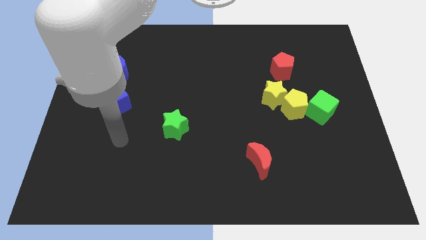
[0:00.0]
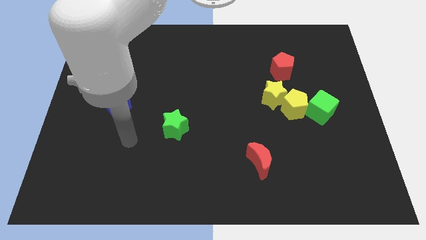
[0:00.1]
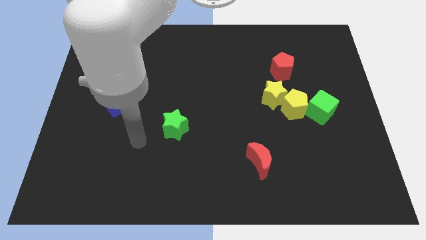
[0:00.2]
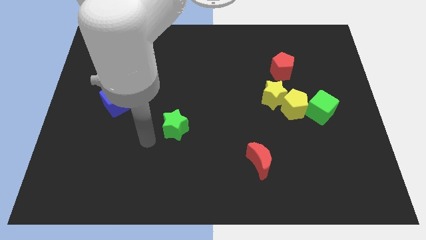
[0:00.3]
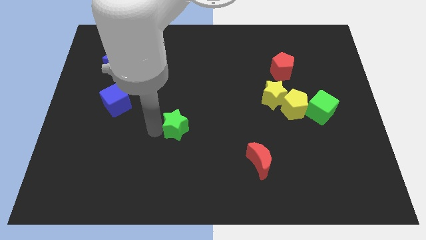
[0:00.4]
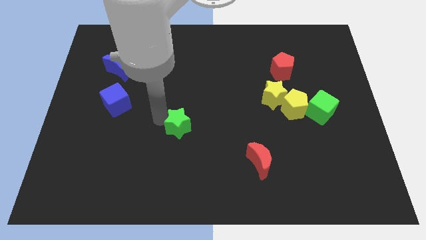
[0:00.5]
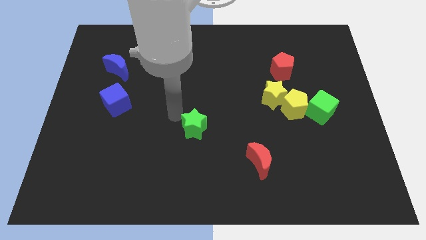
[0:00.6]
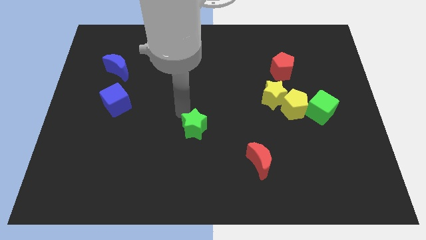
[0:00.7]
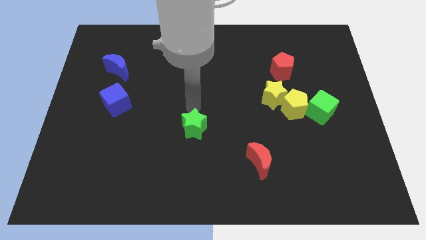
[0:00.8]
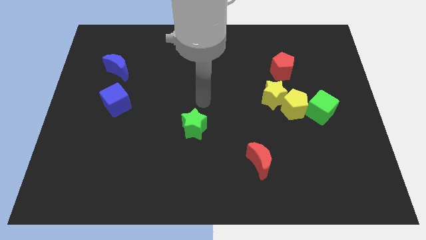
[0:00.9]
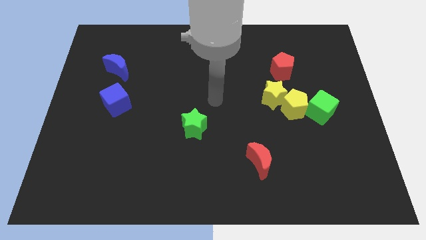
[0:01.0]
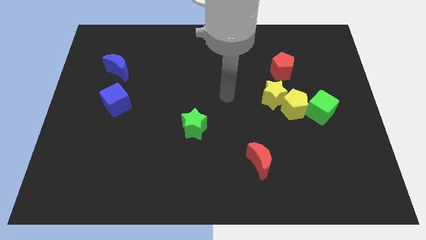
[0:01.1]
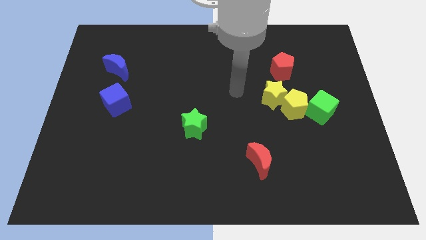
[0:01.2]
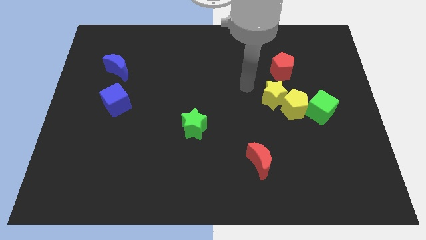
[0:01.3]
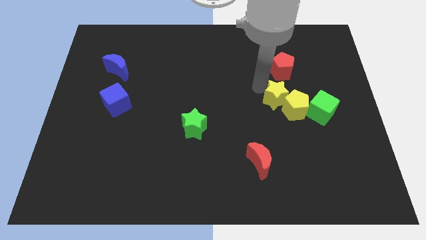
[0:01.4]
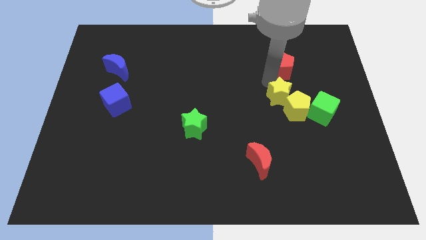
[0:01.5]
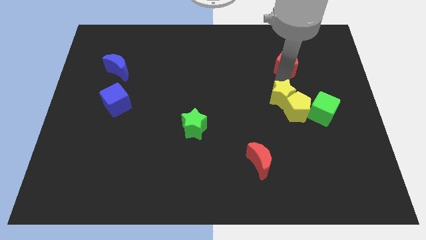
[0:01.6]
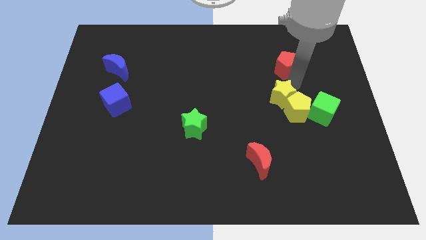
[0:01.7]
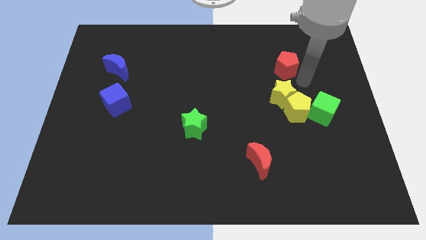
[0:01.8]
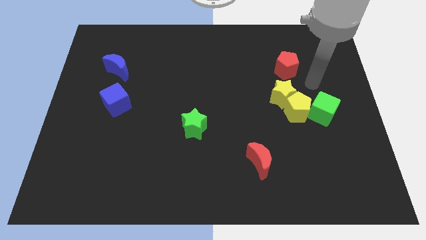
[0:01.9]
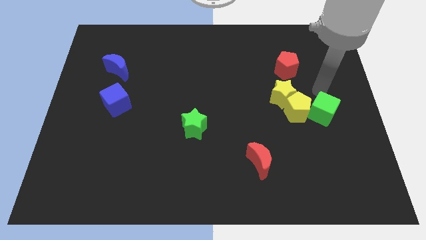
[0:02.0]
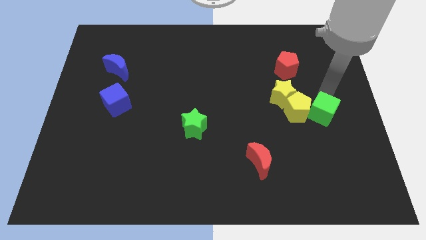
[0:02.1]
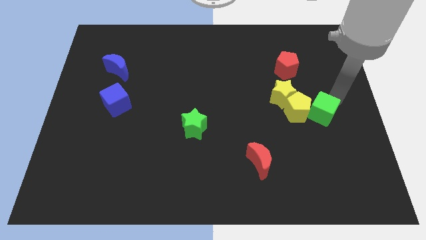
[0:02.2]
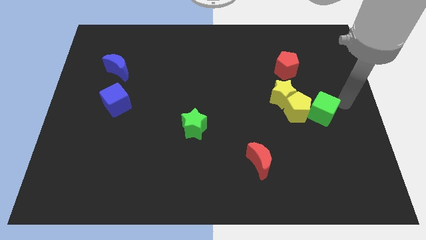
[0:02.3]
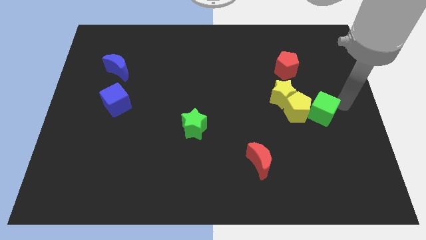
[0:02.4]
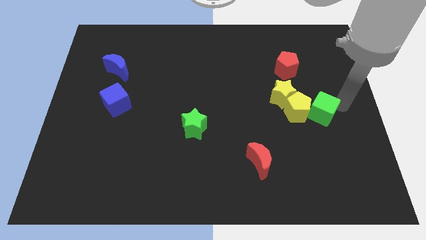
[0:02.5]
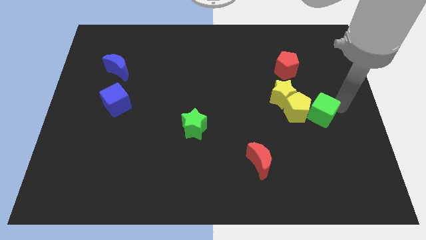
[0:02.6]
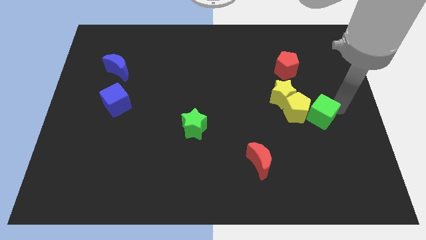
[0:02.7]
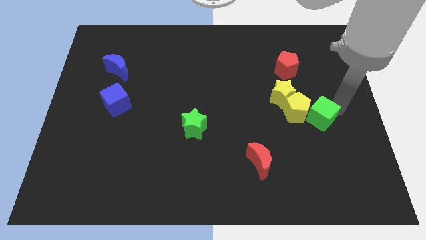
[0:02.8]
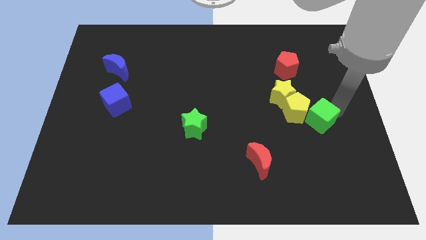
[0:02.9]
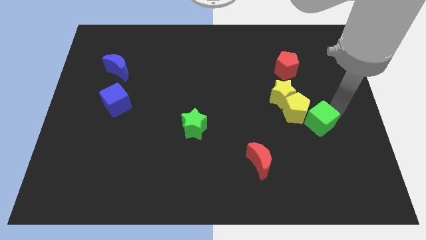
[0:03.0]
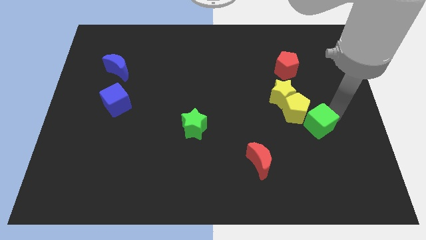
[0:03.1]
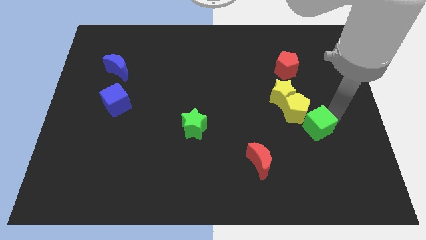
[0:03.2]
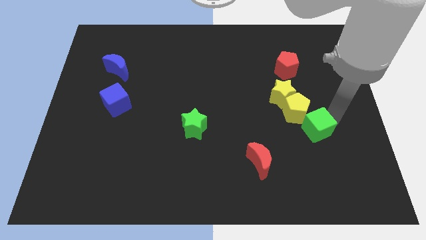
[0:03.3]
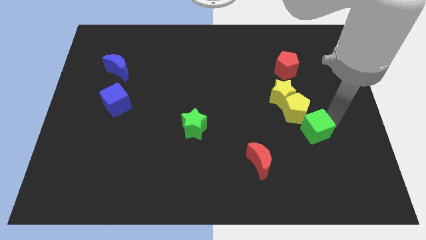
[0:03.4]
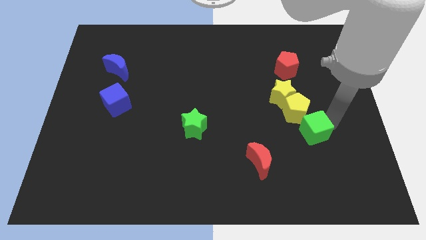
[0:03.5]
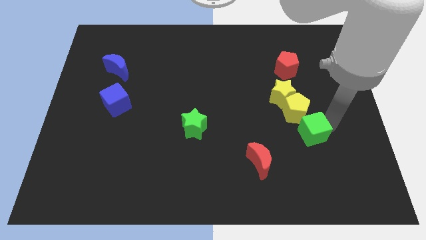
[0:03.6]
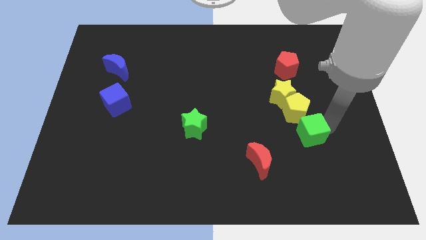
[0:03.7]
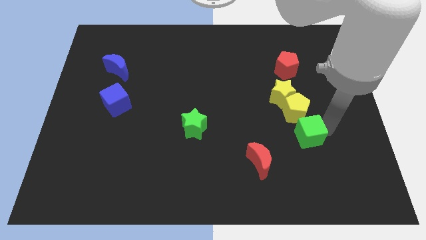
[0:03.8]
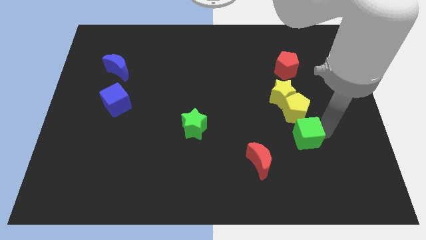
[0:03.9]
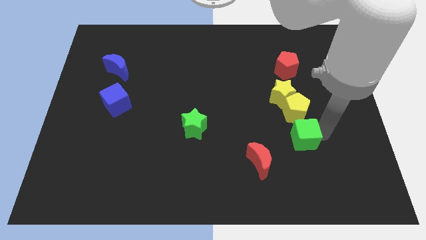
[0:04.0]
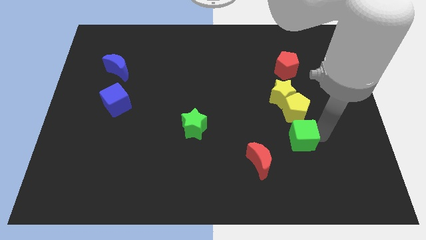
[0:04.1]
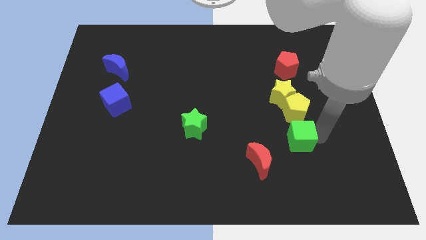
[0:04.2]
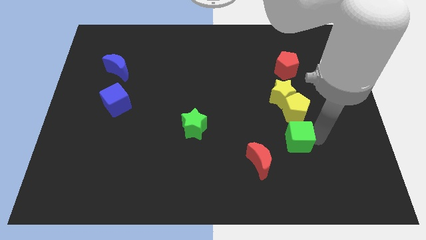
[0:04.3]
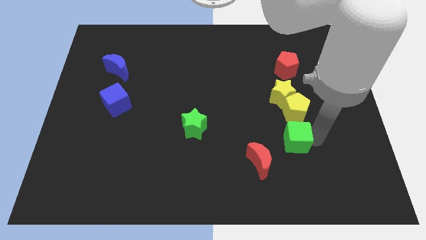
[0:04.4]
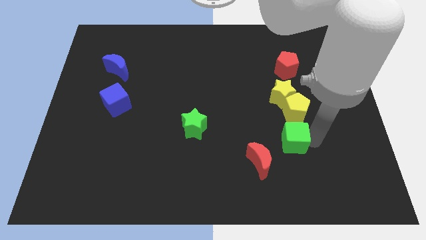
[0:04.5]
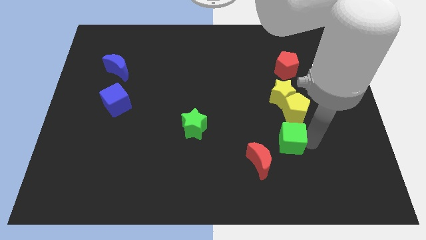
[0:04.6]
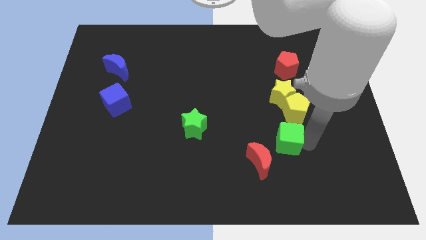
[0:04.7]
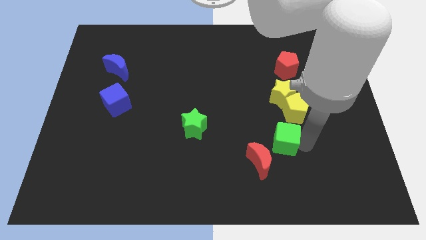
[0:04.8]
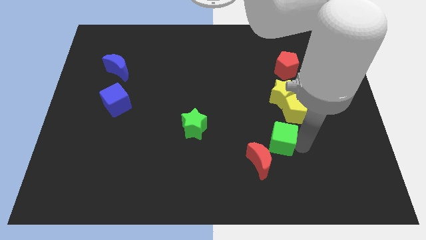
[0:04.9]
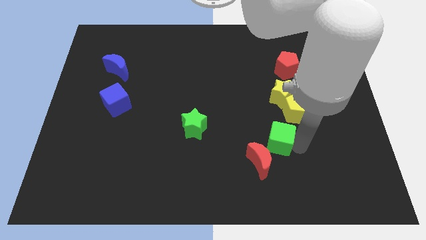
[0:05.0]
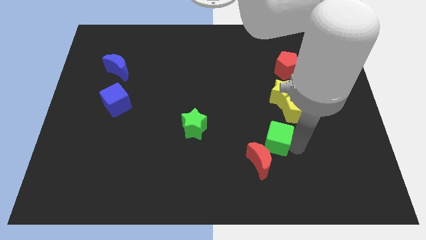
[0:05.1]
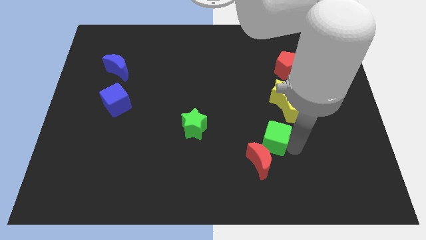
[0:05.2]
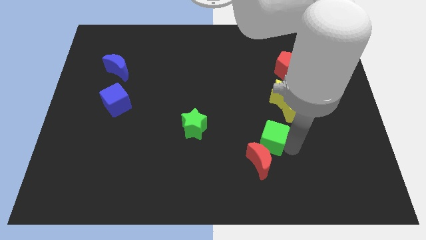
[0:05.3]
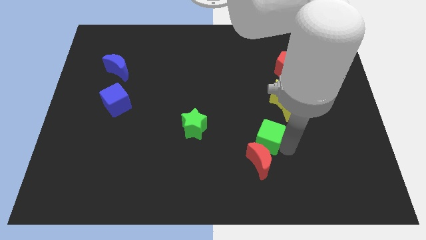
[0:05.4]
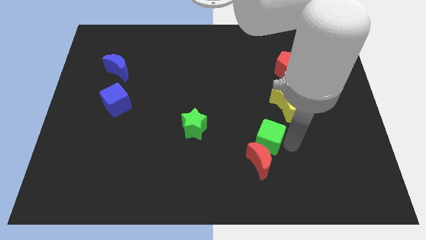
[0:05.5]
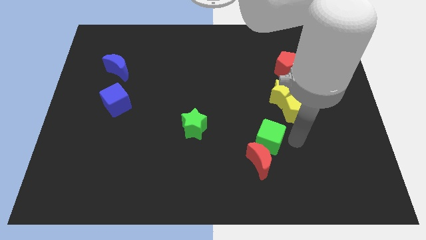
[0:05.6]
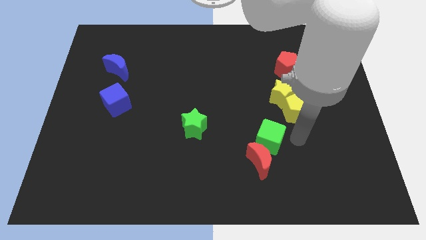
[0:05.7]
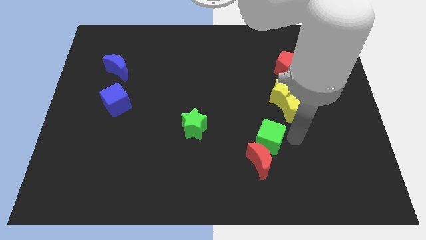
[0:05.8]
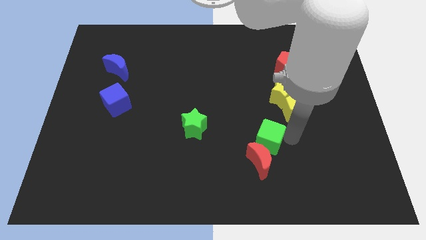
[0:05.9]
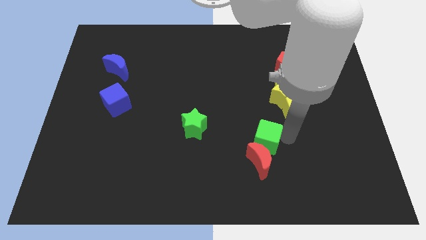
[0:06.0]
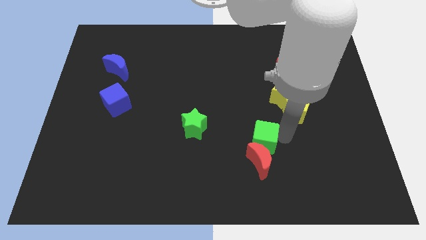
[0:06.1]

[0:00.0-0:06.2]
slide the green cube diagonally up and to the left of the red moon

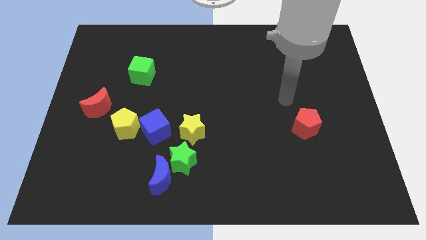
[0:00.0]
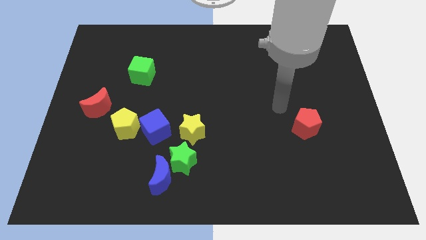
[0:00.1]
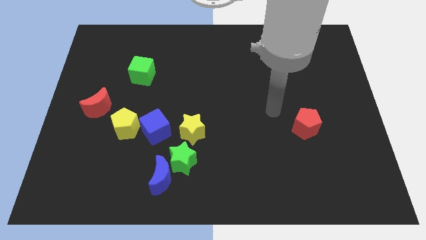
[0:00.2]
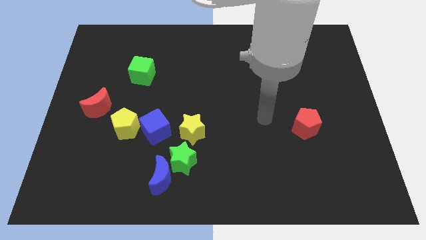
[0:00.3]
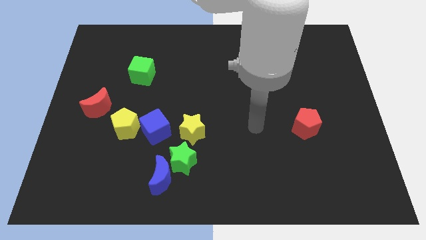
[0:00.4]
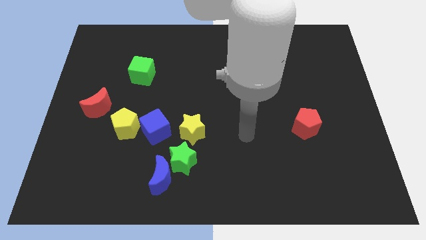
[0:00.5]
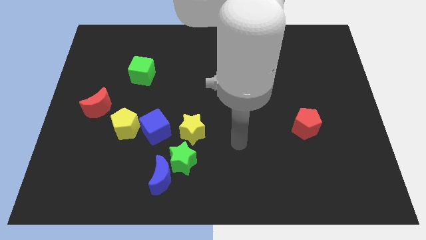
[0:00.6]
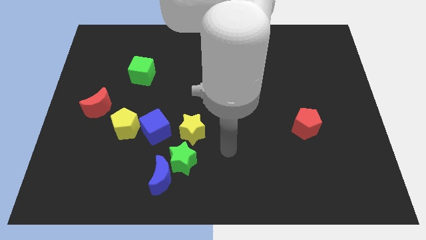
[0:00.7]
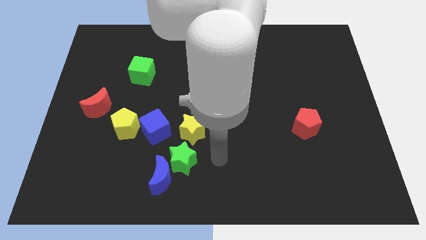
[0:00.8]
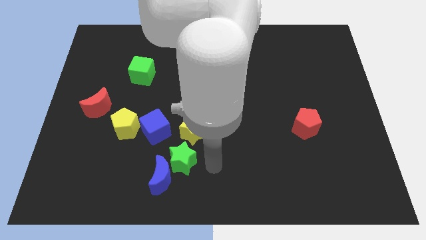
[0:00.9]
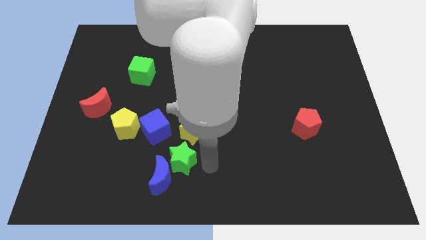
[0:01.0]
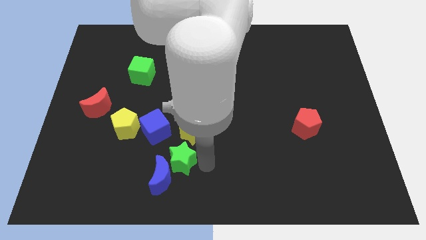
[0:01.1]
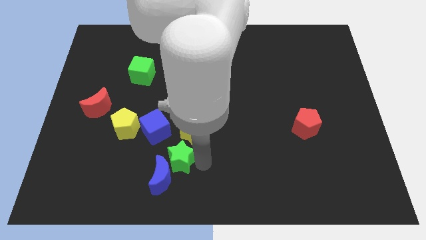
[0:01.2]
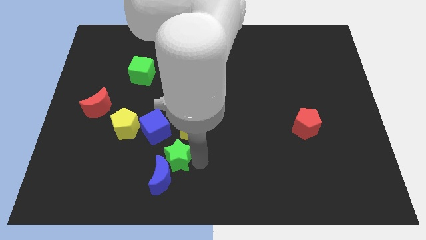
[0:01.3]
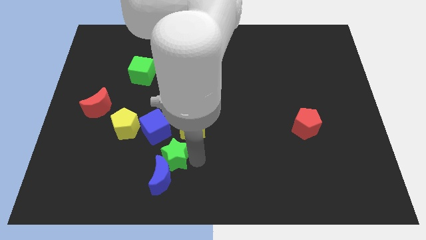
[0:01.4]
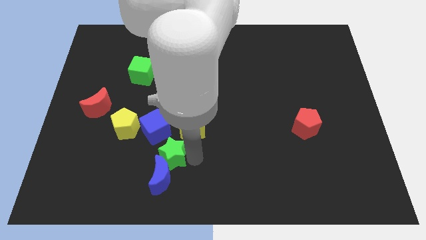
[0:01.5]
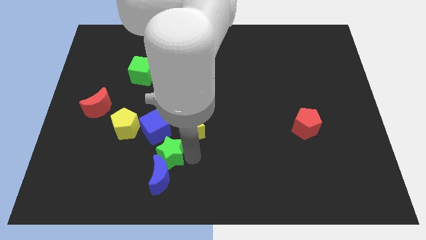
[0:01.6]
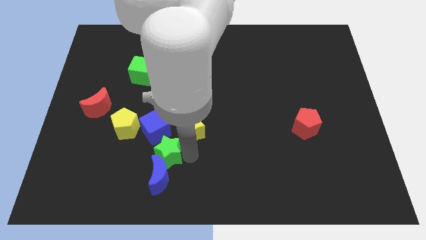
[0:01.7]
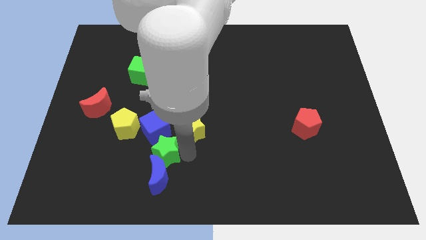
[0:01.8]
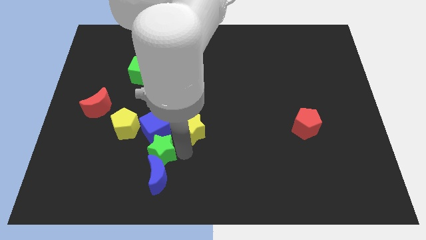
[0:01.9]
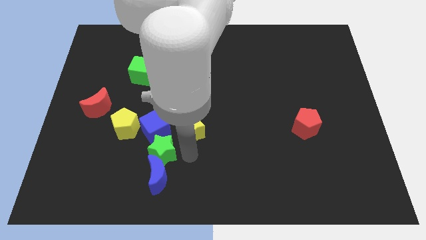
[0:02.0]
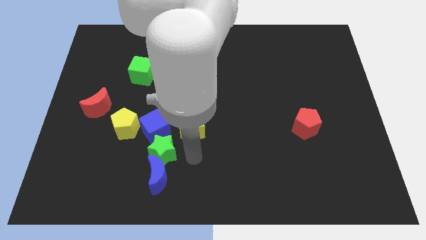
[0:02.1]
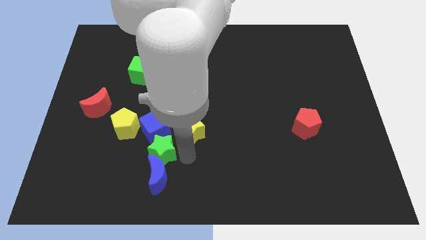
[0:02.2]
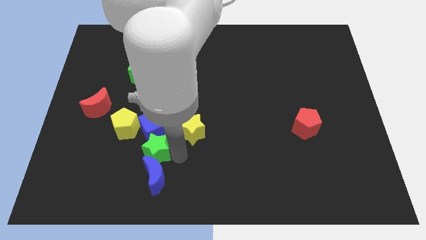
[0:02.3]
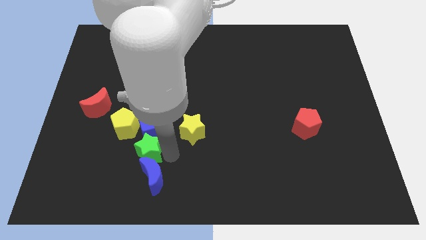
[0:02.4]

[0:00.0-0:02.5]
slide the green star to the bottom left side of the blue cube
